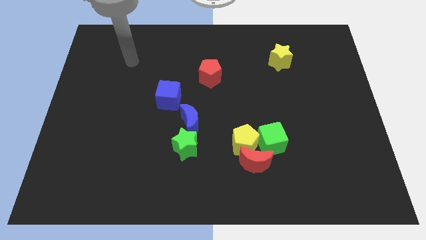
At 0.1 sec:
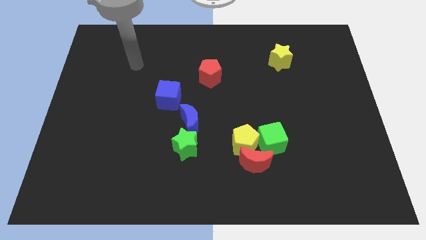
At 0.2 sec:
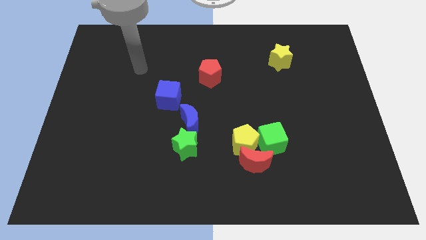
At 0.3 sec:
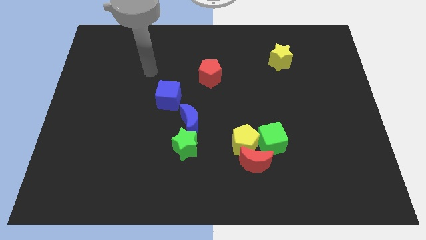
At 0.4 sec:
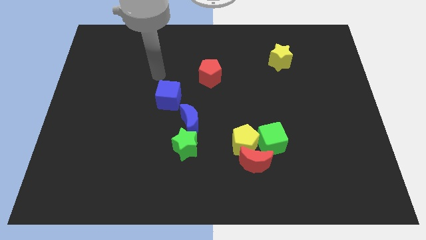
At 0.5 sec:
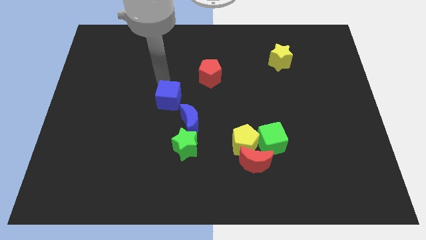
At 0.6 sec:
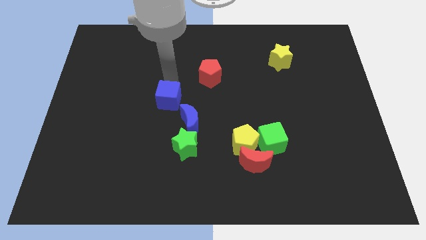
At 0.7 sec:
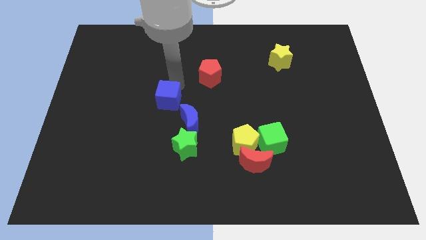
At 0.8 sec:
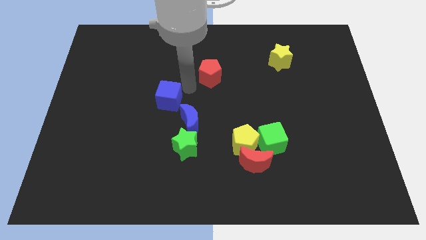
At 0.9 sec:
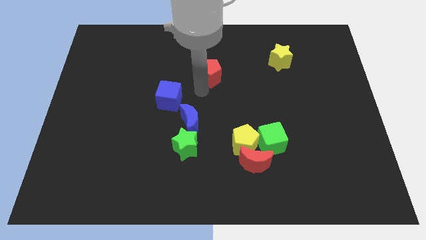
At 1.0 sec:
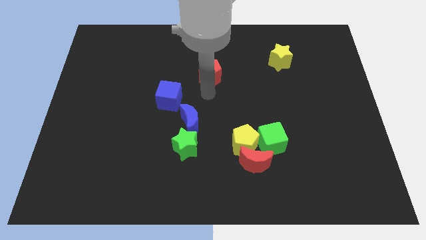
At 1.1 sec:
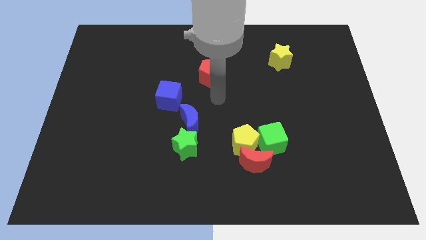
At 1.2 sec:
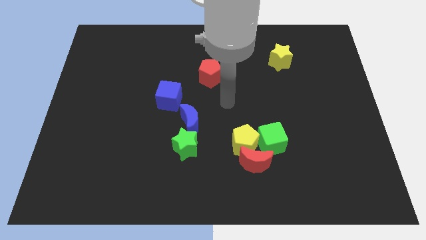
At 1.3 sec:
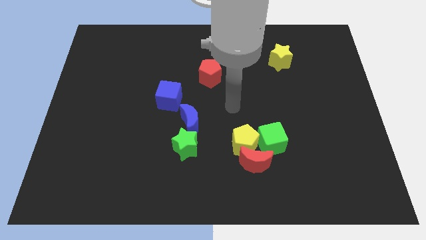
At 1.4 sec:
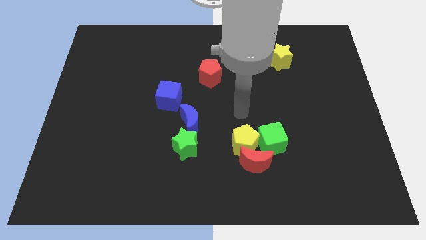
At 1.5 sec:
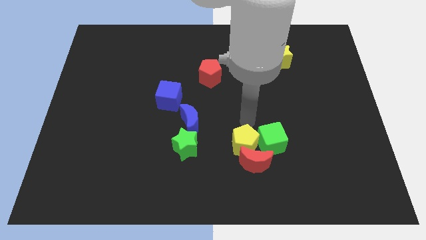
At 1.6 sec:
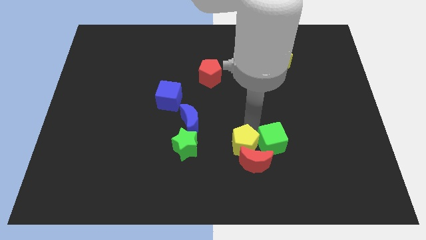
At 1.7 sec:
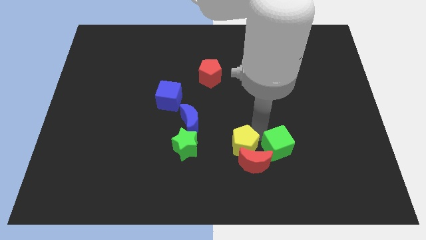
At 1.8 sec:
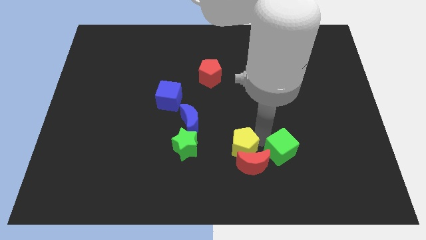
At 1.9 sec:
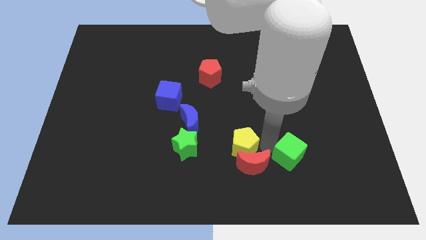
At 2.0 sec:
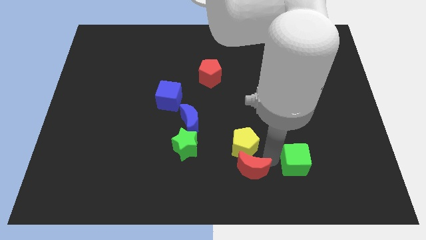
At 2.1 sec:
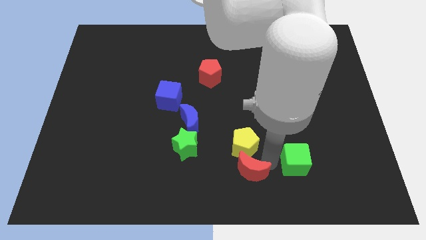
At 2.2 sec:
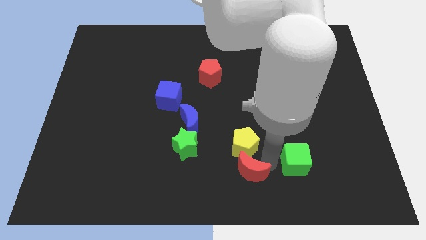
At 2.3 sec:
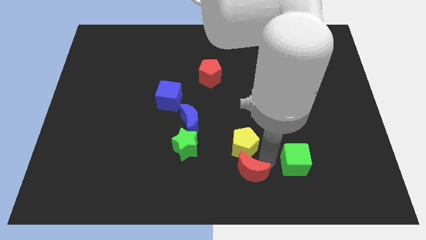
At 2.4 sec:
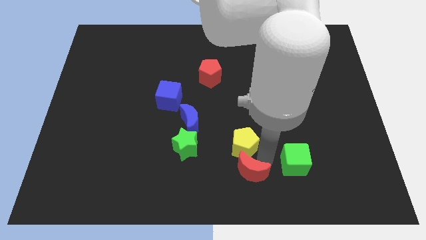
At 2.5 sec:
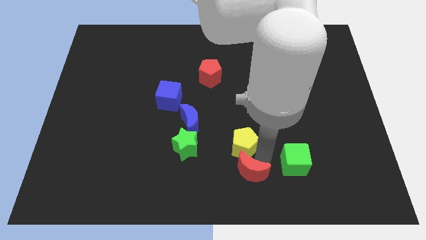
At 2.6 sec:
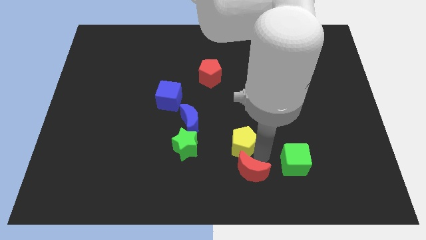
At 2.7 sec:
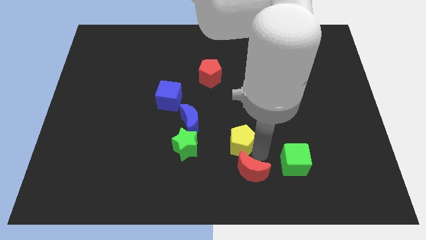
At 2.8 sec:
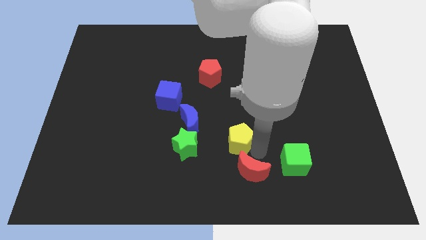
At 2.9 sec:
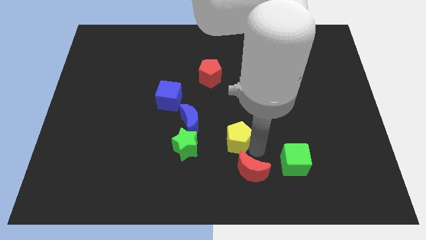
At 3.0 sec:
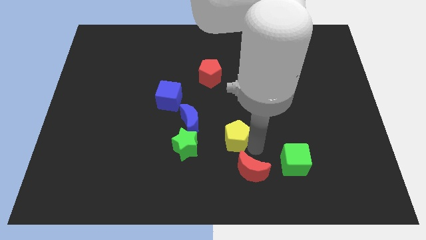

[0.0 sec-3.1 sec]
pull the yellow pentagon apart from the red moon and green cube

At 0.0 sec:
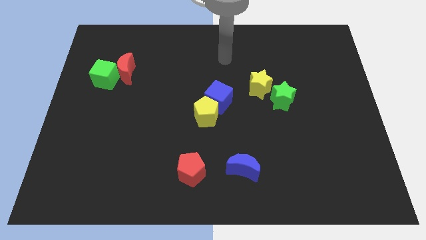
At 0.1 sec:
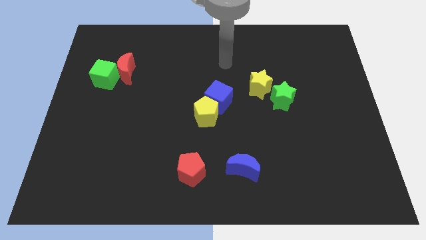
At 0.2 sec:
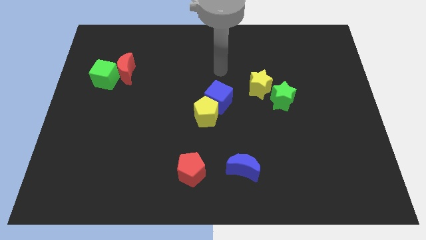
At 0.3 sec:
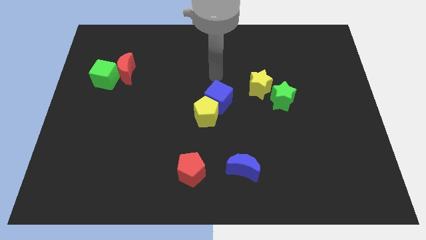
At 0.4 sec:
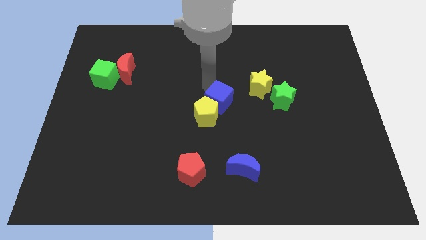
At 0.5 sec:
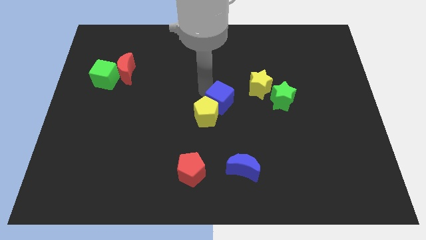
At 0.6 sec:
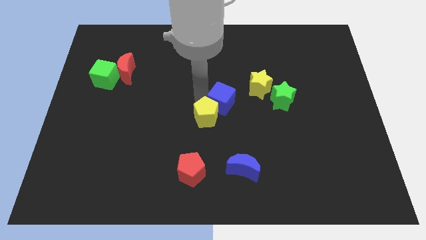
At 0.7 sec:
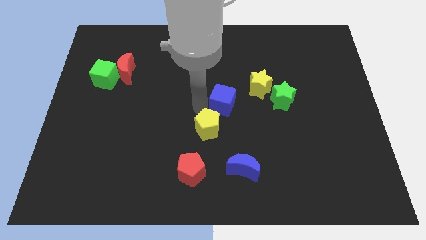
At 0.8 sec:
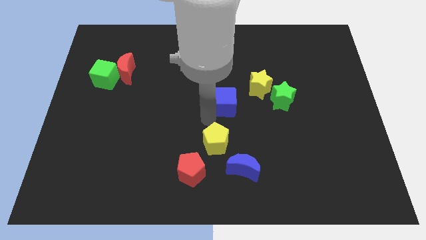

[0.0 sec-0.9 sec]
separate the blue cube from the yellow pentagon
